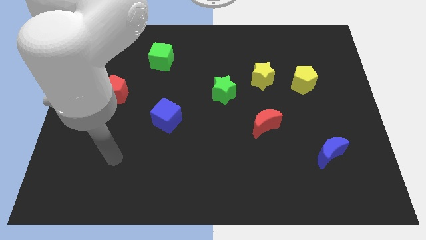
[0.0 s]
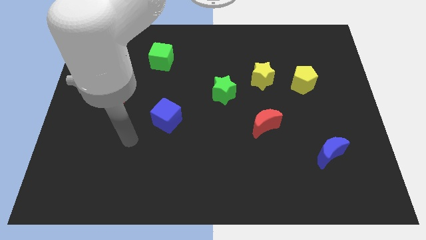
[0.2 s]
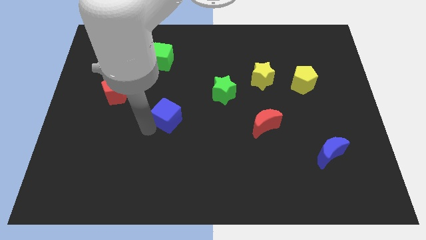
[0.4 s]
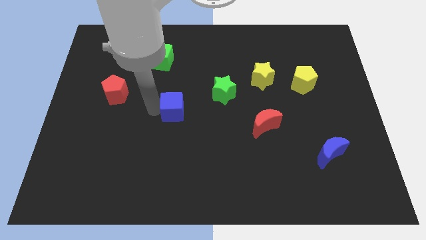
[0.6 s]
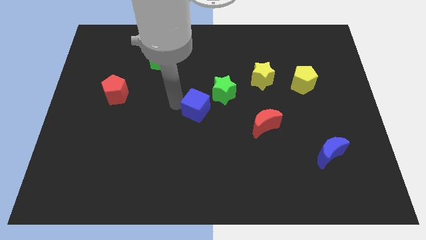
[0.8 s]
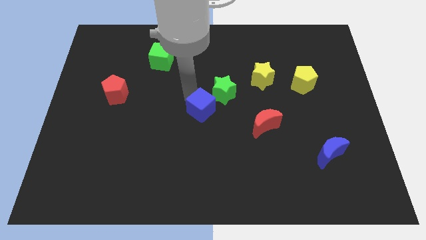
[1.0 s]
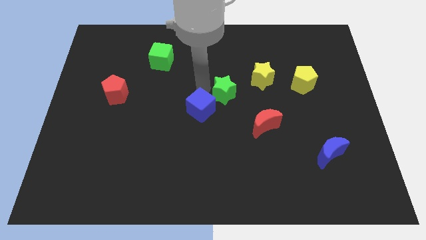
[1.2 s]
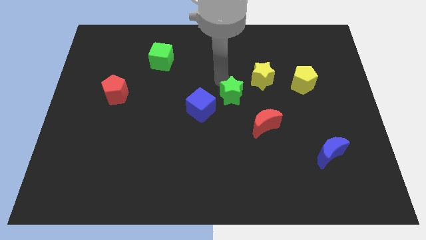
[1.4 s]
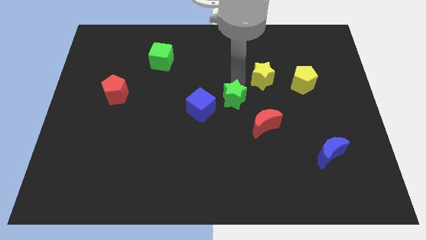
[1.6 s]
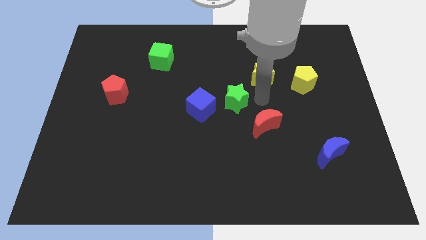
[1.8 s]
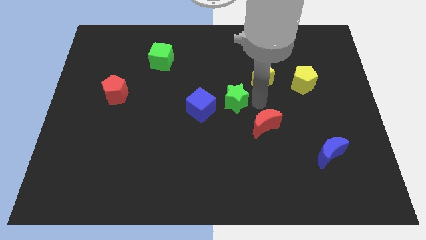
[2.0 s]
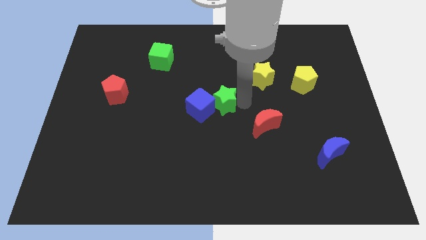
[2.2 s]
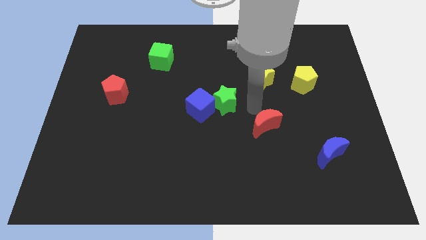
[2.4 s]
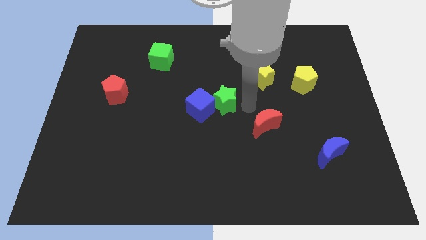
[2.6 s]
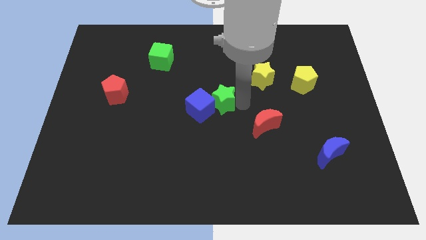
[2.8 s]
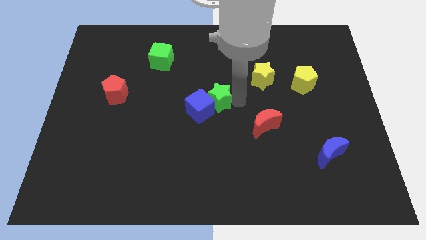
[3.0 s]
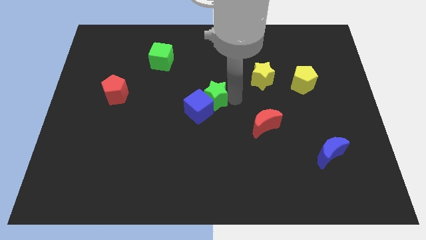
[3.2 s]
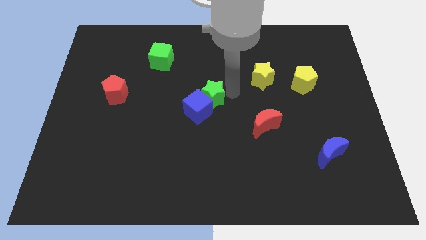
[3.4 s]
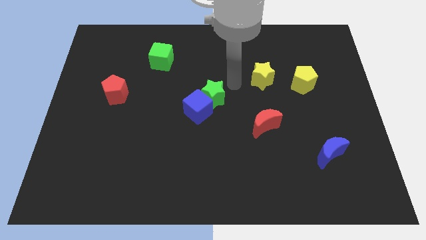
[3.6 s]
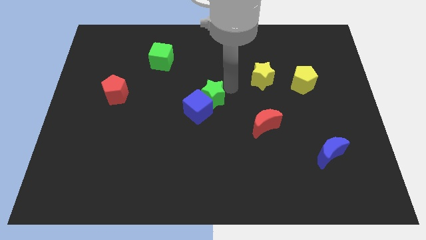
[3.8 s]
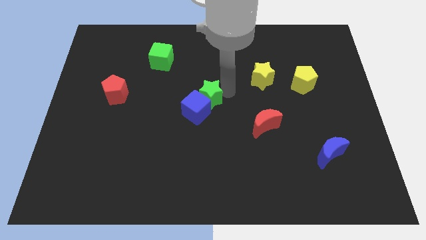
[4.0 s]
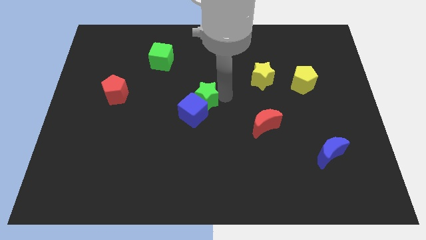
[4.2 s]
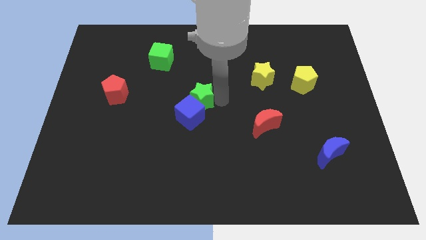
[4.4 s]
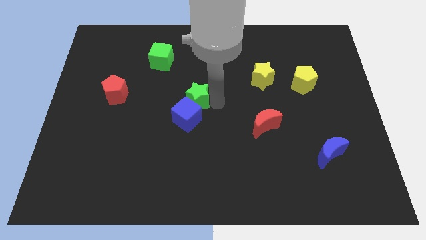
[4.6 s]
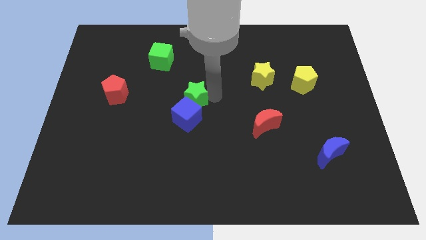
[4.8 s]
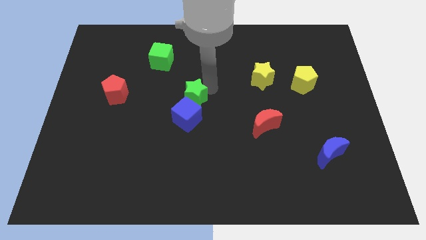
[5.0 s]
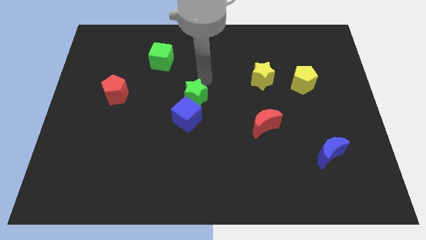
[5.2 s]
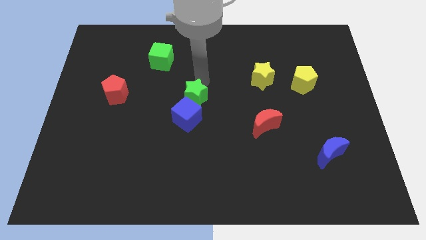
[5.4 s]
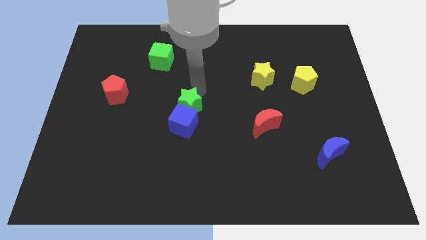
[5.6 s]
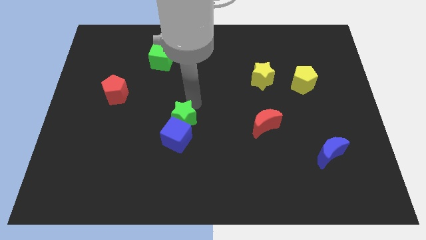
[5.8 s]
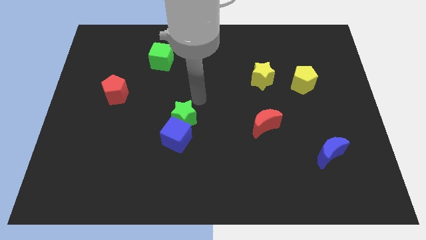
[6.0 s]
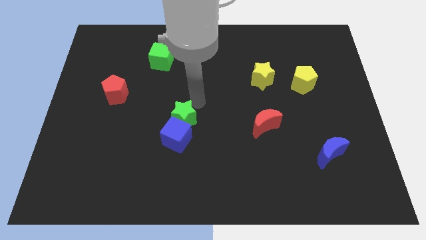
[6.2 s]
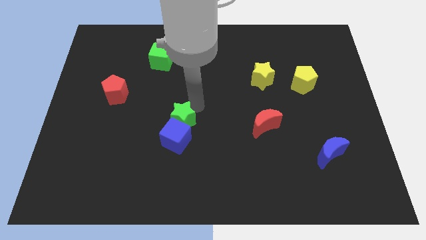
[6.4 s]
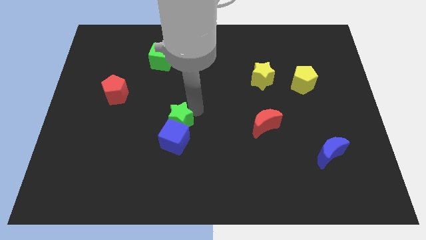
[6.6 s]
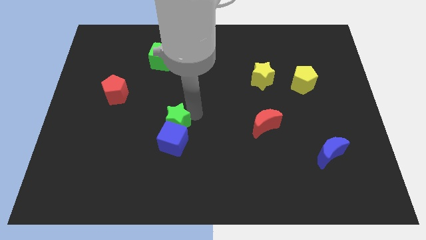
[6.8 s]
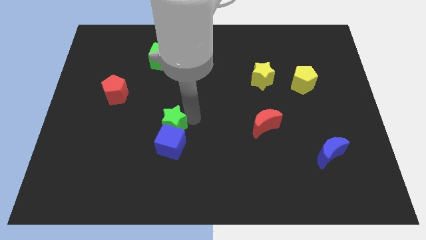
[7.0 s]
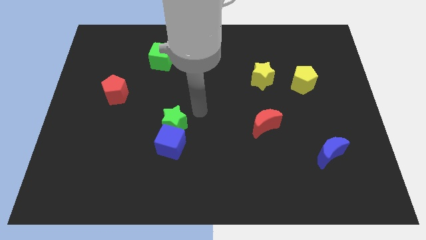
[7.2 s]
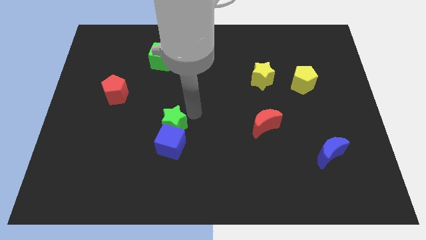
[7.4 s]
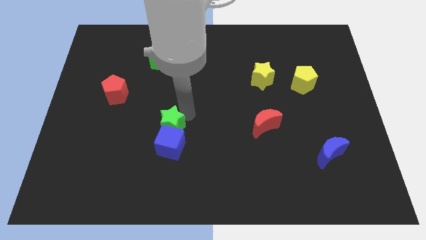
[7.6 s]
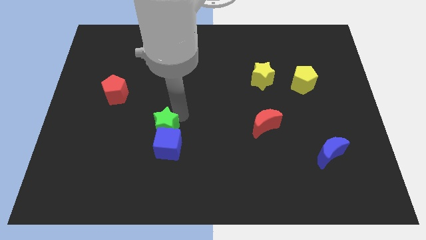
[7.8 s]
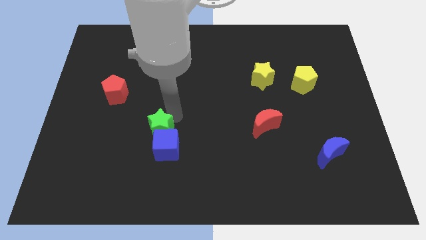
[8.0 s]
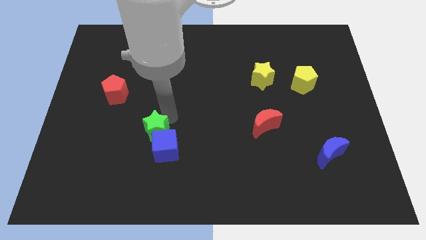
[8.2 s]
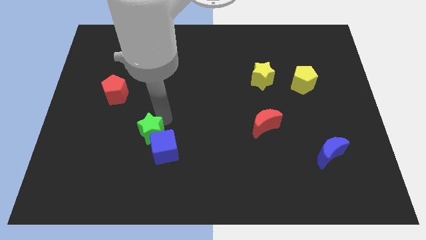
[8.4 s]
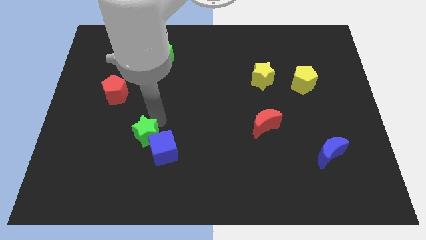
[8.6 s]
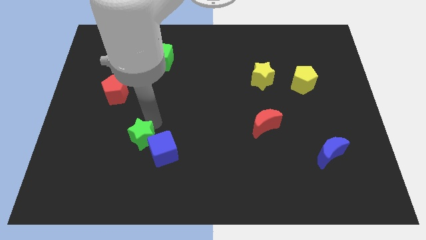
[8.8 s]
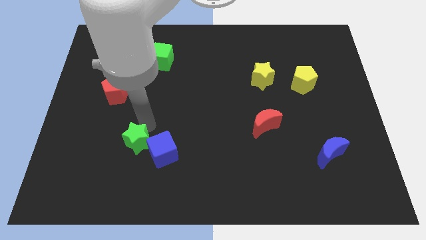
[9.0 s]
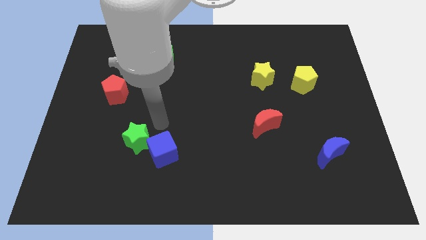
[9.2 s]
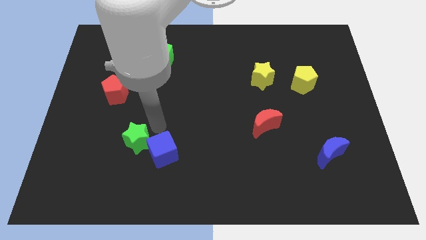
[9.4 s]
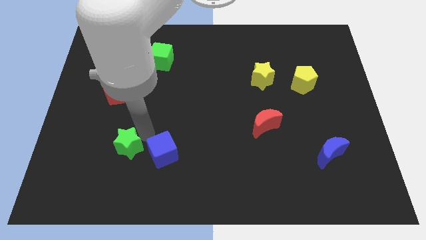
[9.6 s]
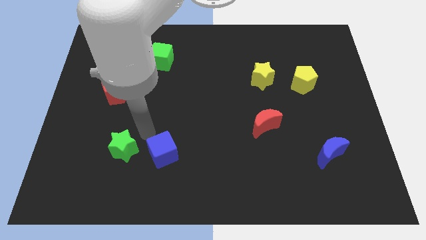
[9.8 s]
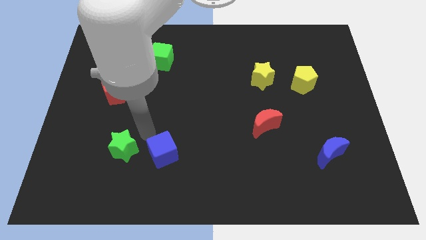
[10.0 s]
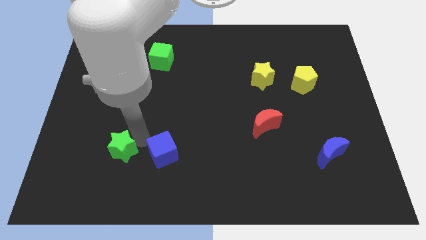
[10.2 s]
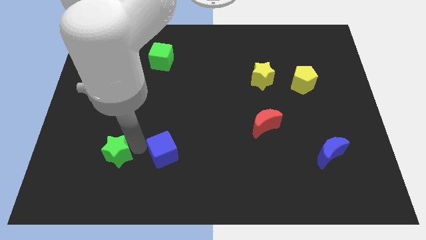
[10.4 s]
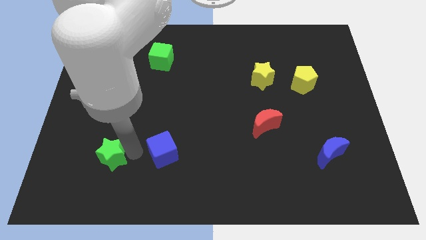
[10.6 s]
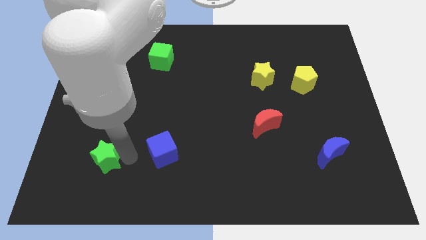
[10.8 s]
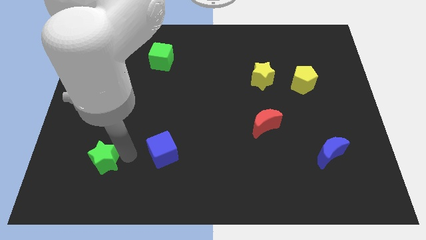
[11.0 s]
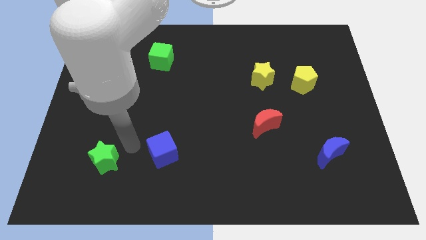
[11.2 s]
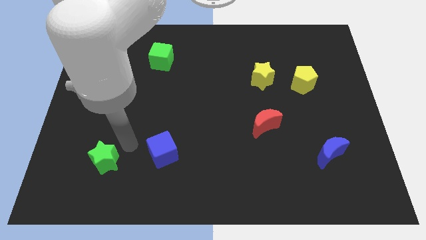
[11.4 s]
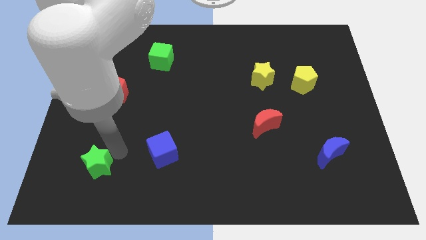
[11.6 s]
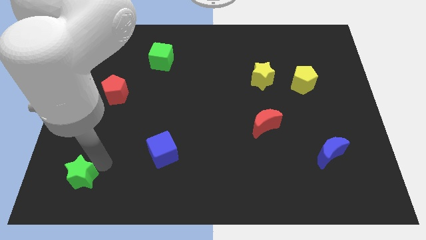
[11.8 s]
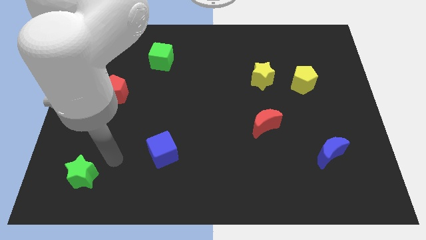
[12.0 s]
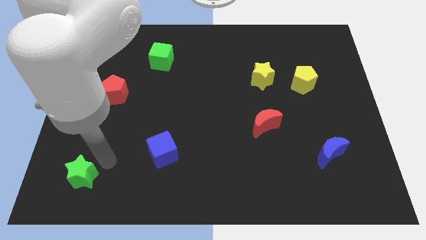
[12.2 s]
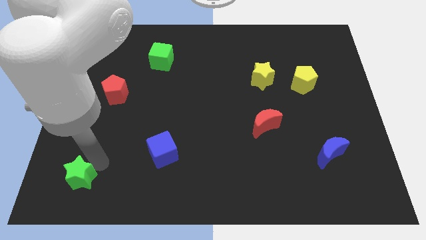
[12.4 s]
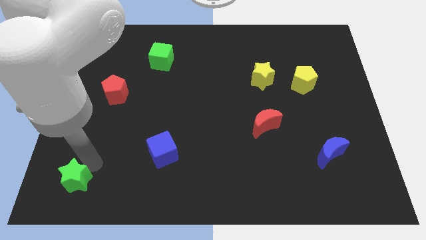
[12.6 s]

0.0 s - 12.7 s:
push the green star to the bottom left of the board

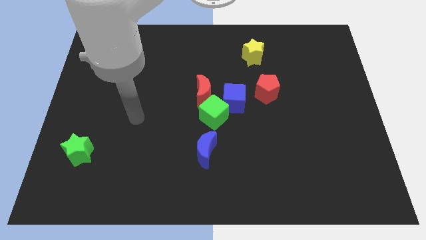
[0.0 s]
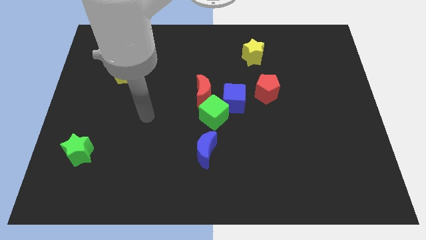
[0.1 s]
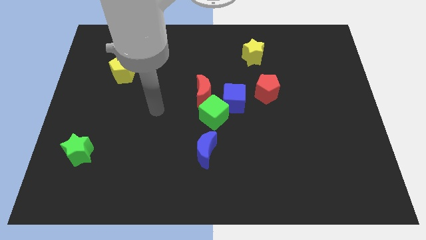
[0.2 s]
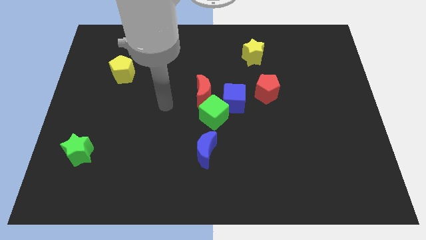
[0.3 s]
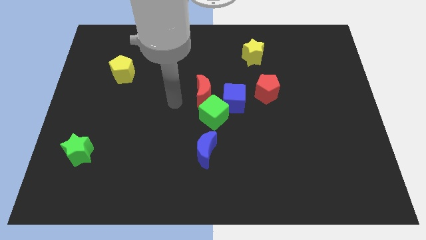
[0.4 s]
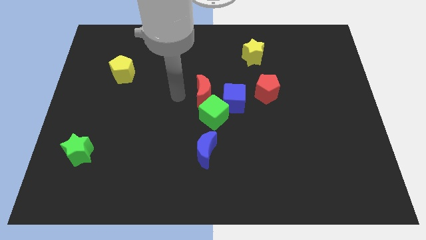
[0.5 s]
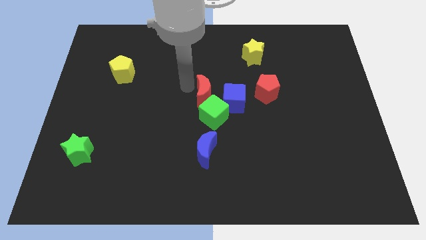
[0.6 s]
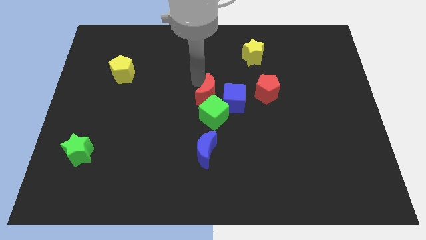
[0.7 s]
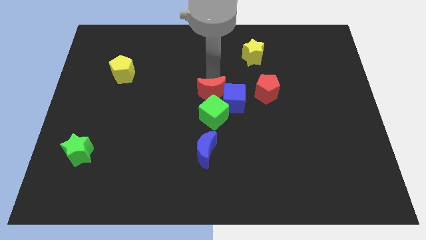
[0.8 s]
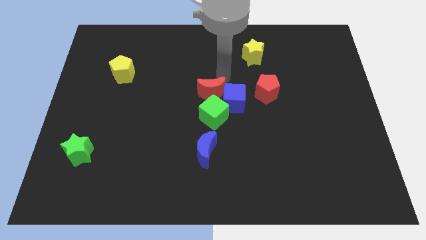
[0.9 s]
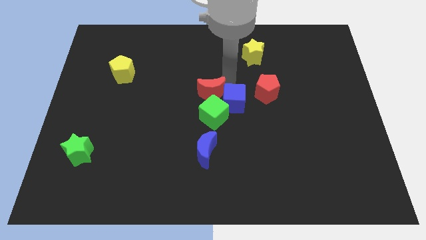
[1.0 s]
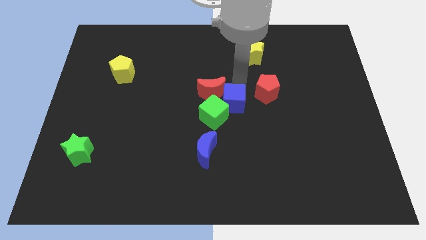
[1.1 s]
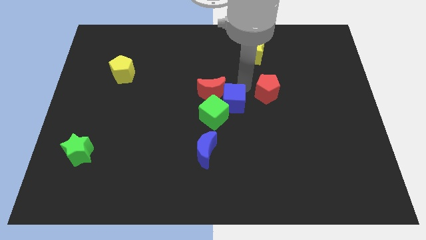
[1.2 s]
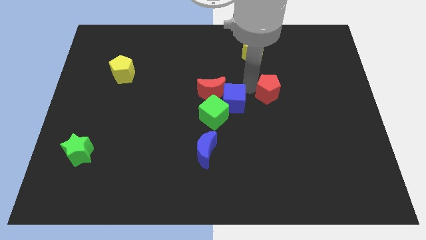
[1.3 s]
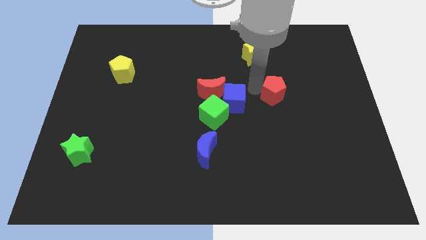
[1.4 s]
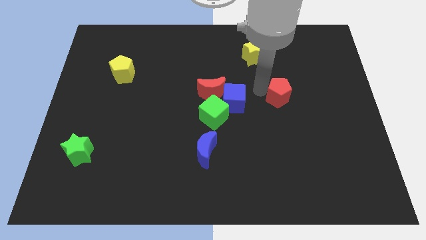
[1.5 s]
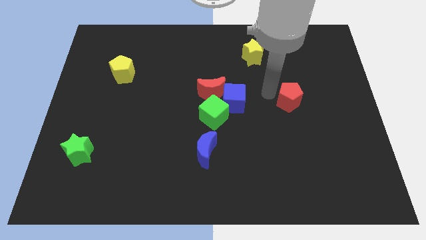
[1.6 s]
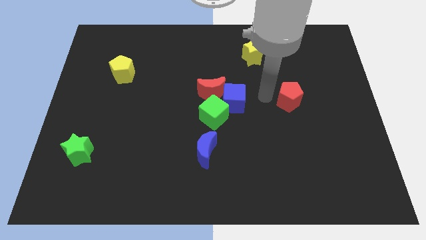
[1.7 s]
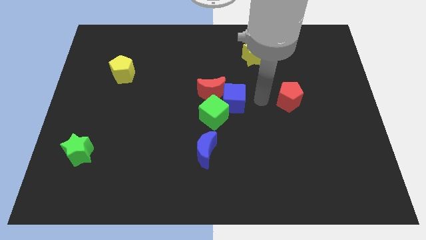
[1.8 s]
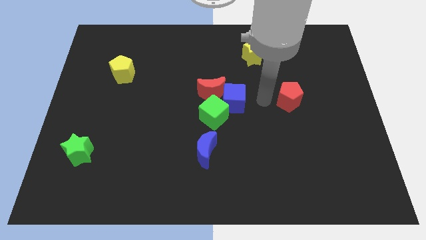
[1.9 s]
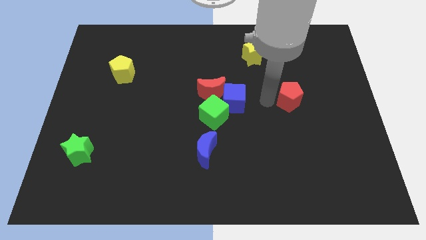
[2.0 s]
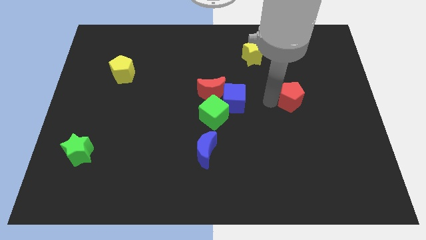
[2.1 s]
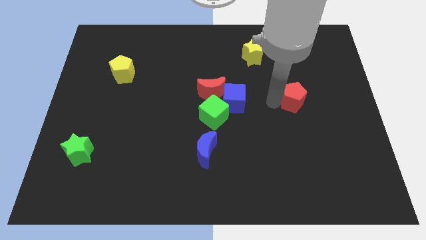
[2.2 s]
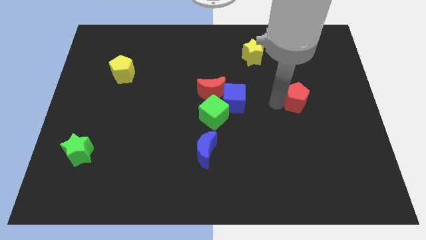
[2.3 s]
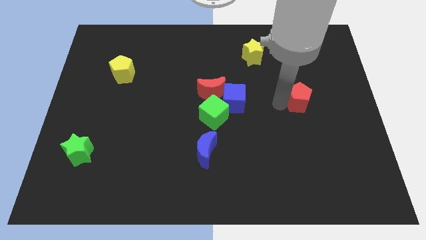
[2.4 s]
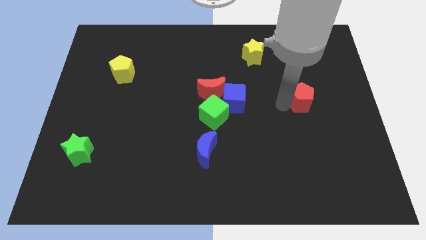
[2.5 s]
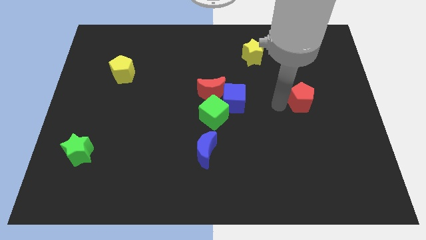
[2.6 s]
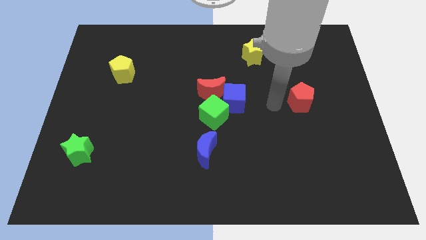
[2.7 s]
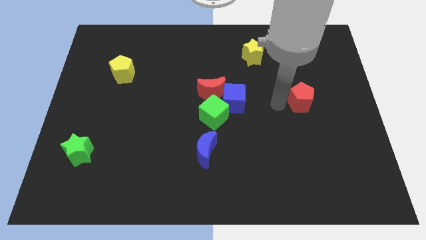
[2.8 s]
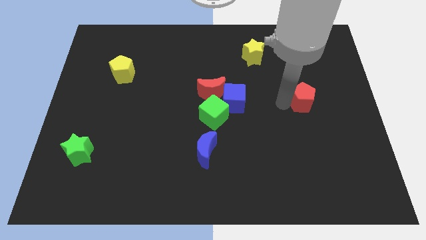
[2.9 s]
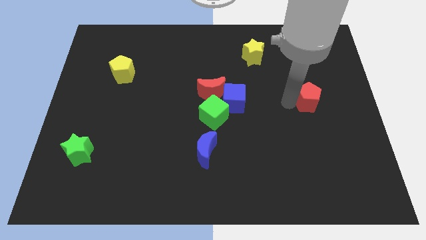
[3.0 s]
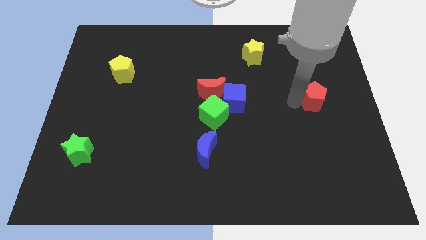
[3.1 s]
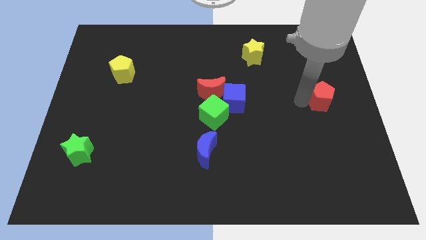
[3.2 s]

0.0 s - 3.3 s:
put the red pentagon to the right side of the board
